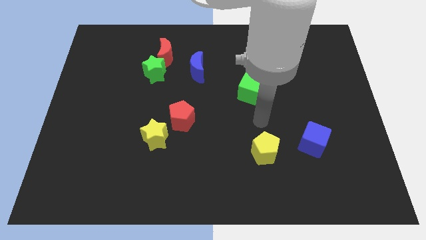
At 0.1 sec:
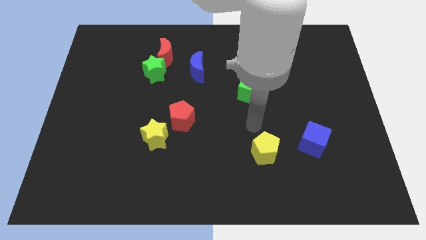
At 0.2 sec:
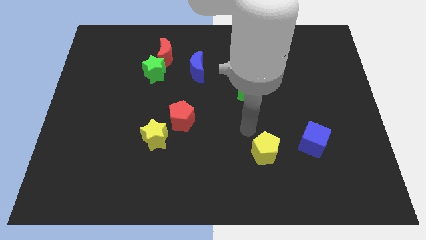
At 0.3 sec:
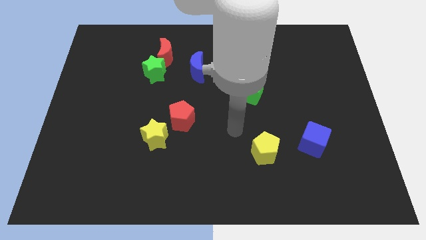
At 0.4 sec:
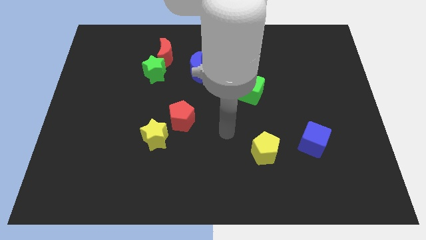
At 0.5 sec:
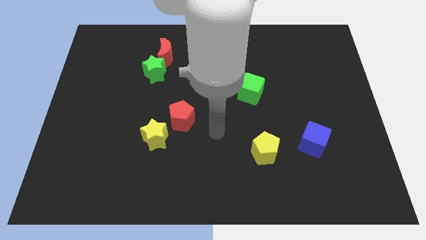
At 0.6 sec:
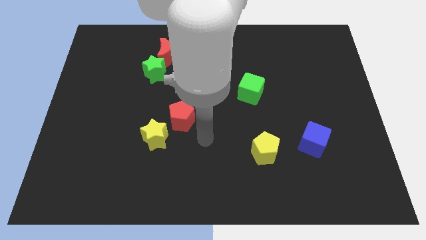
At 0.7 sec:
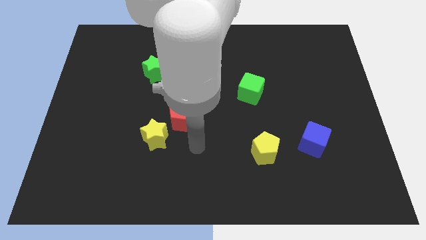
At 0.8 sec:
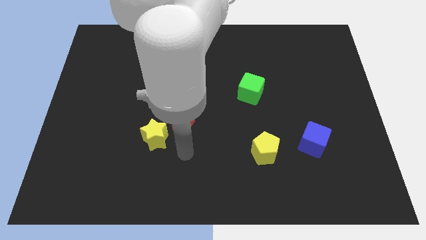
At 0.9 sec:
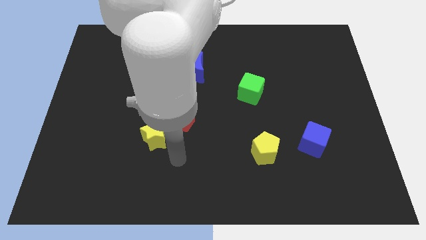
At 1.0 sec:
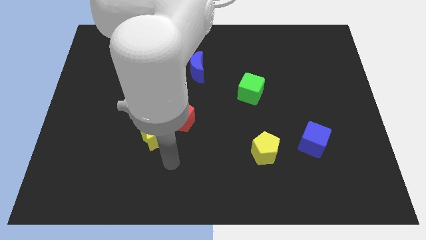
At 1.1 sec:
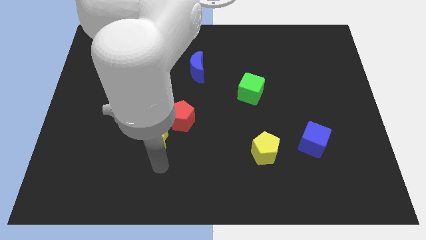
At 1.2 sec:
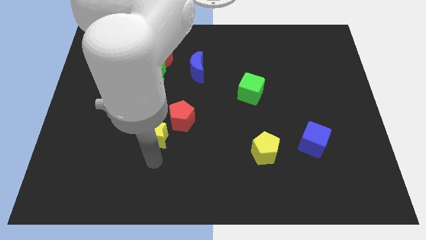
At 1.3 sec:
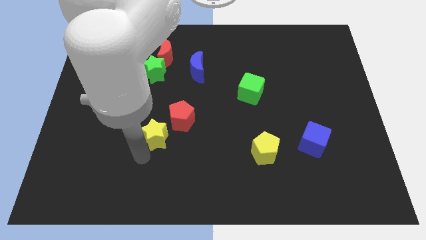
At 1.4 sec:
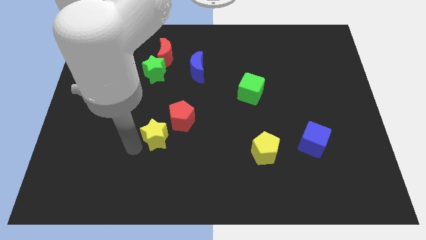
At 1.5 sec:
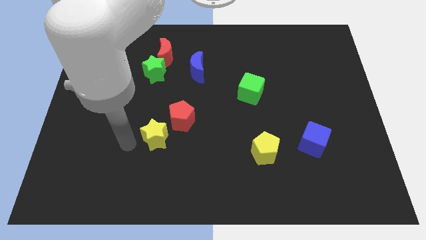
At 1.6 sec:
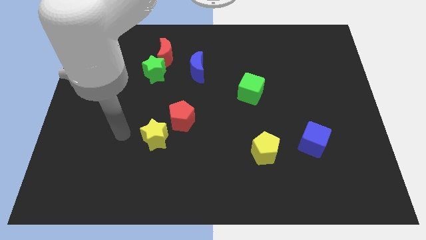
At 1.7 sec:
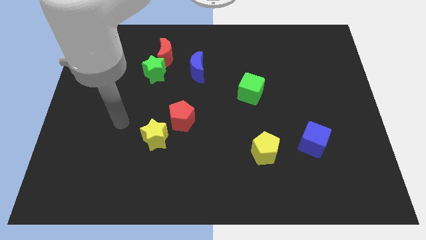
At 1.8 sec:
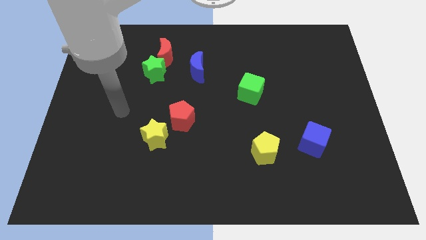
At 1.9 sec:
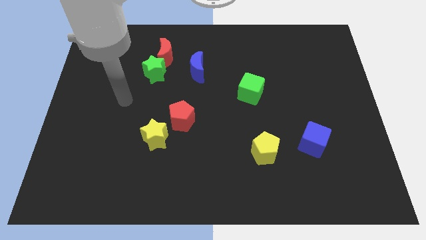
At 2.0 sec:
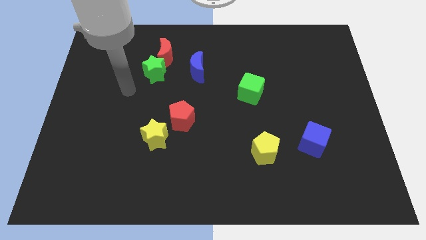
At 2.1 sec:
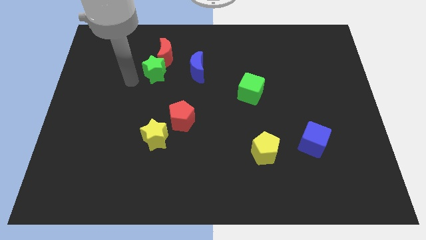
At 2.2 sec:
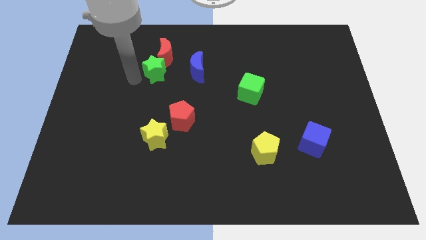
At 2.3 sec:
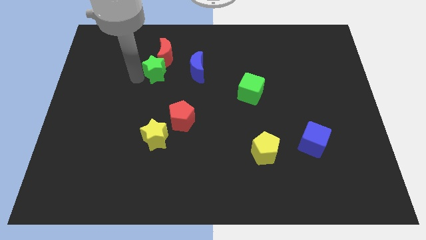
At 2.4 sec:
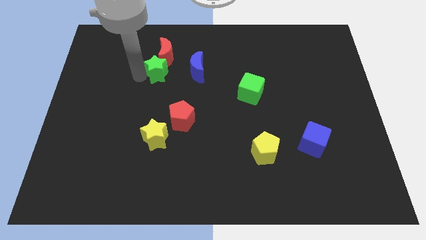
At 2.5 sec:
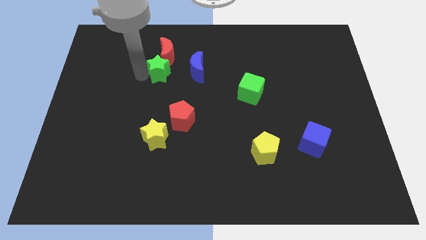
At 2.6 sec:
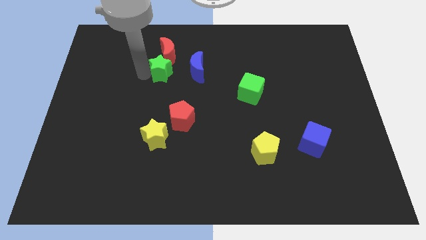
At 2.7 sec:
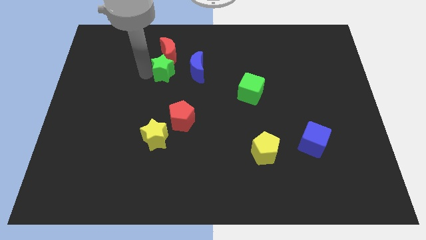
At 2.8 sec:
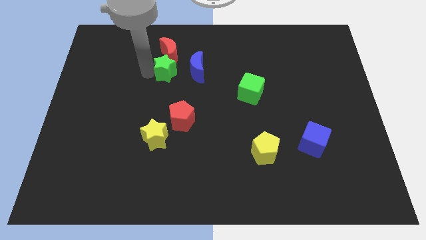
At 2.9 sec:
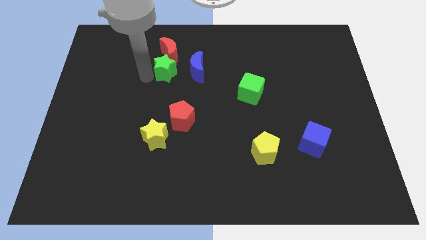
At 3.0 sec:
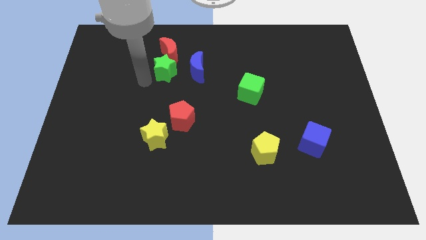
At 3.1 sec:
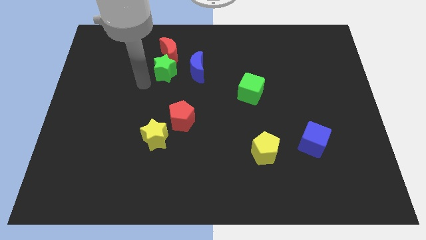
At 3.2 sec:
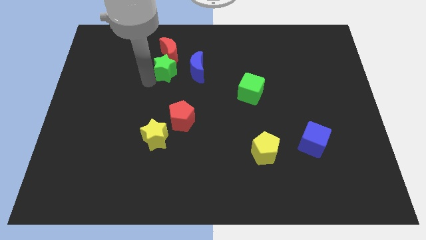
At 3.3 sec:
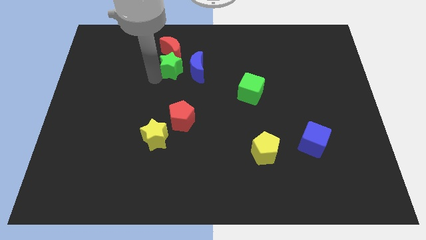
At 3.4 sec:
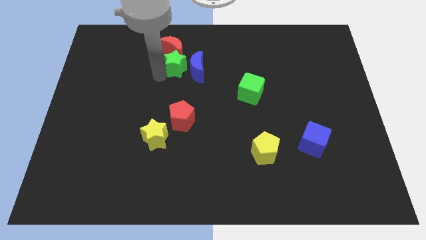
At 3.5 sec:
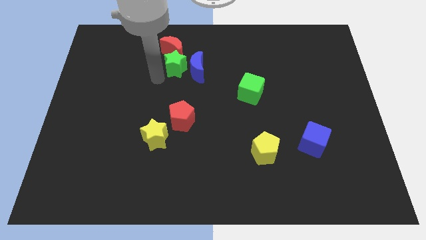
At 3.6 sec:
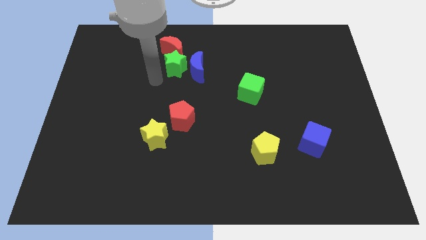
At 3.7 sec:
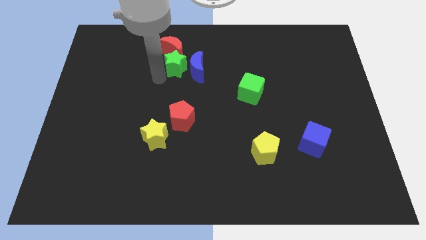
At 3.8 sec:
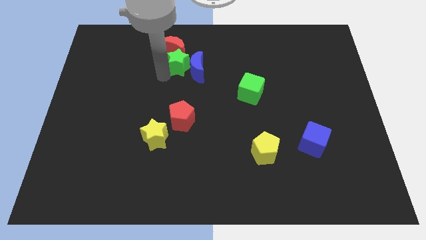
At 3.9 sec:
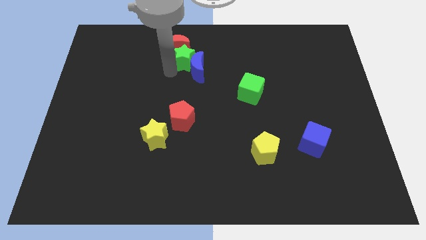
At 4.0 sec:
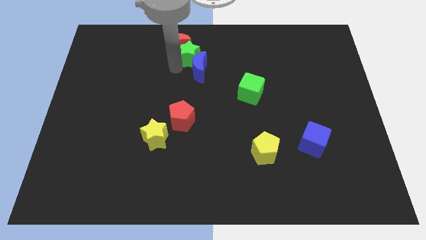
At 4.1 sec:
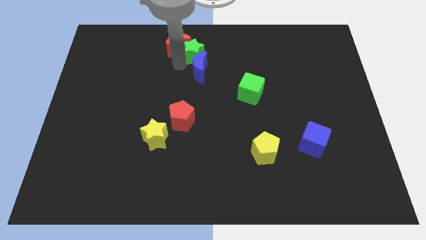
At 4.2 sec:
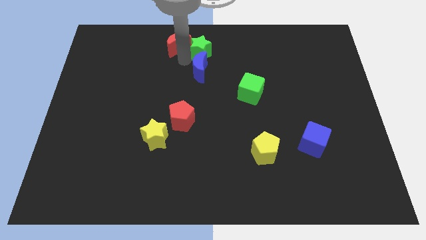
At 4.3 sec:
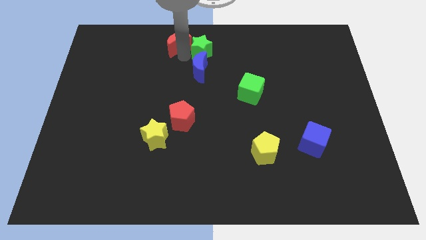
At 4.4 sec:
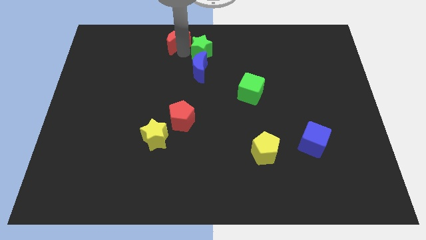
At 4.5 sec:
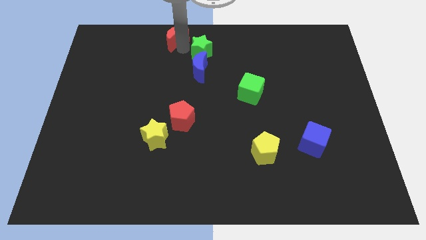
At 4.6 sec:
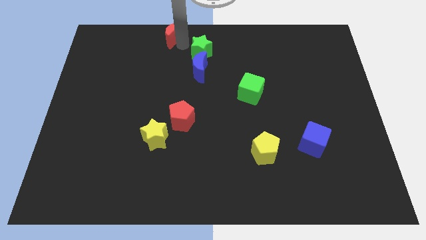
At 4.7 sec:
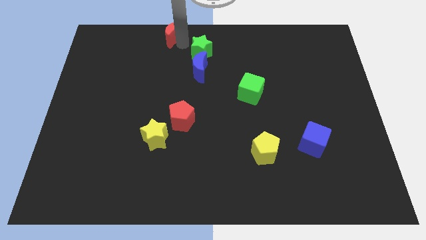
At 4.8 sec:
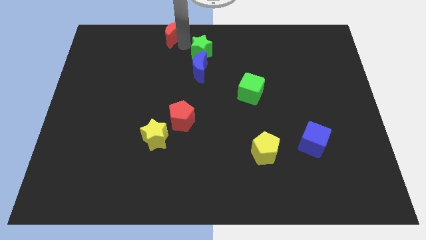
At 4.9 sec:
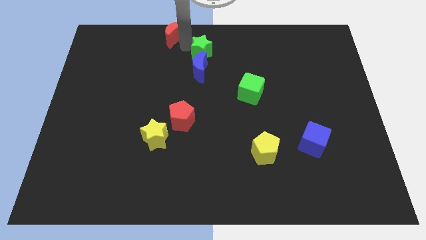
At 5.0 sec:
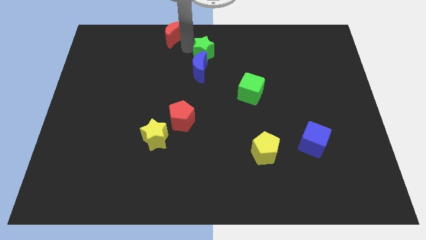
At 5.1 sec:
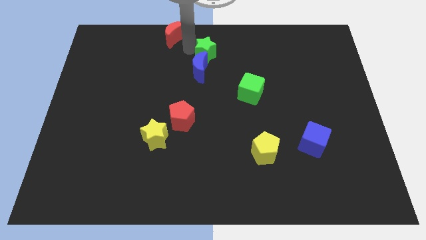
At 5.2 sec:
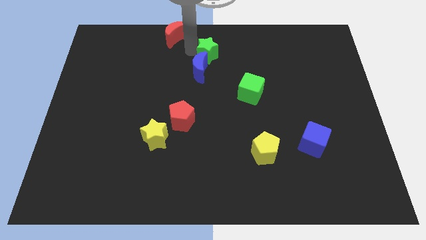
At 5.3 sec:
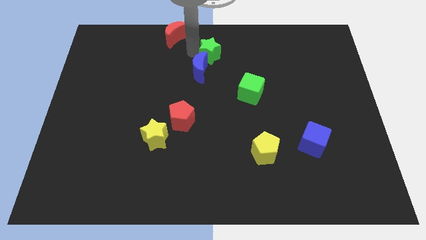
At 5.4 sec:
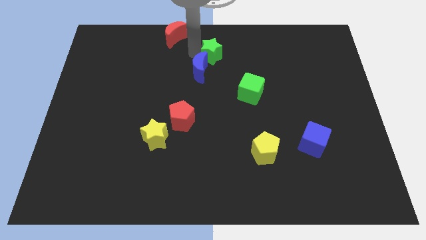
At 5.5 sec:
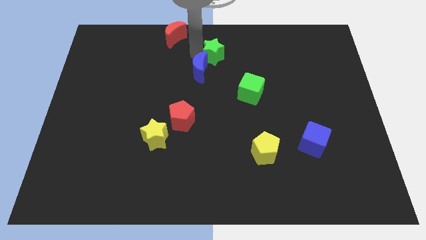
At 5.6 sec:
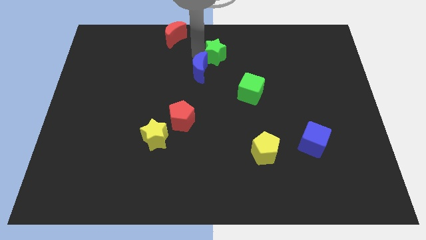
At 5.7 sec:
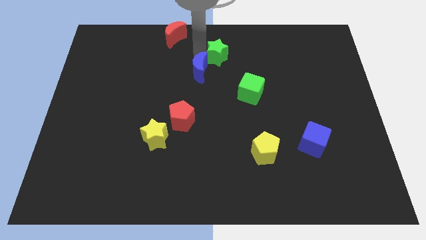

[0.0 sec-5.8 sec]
push the green star to the right of the blue moon

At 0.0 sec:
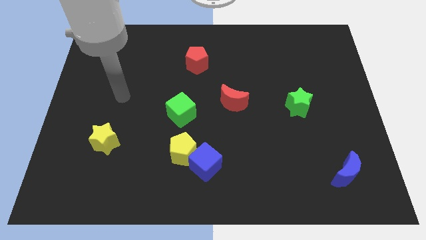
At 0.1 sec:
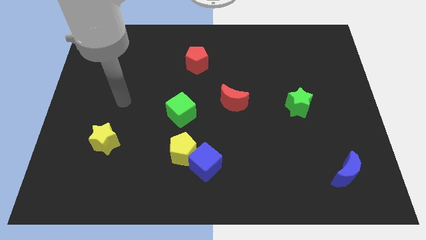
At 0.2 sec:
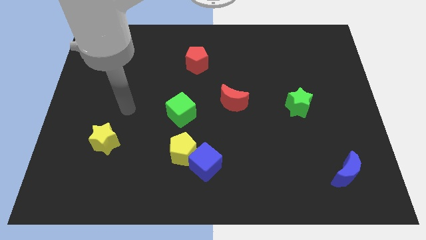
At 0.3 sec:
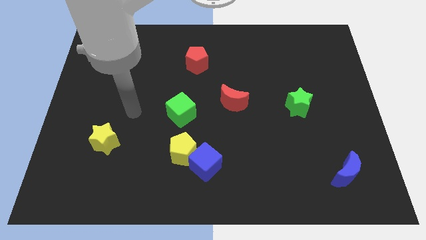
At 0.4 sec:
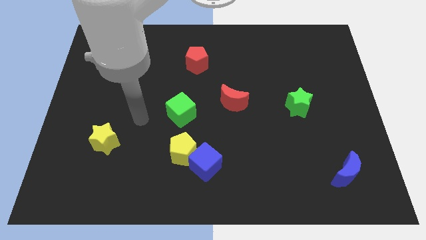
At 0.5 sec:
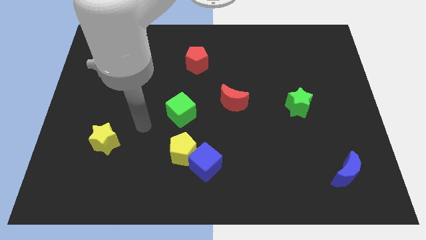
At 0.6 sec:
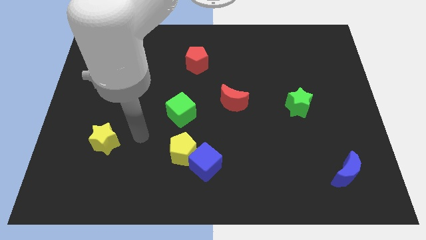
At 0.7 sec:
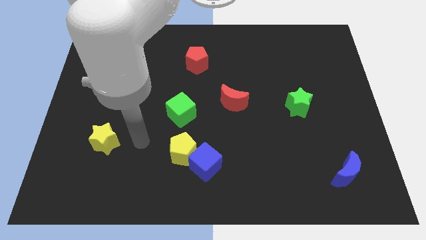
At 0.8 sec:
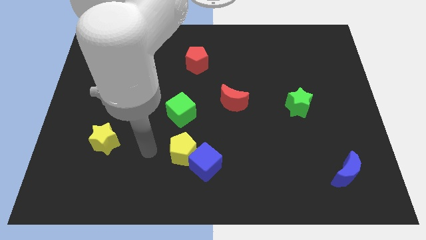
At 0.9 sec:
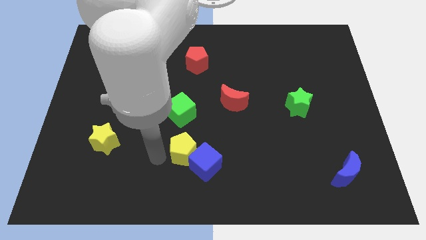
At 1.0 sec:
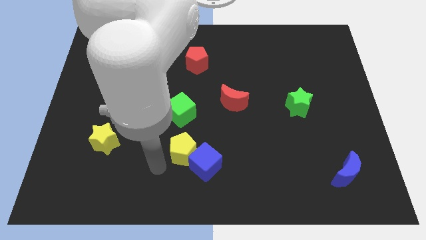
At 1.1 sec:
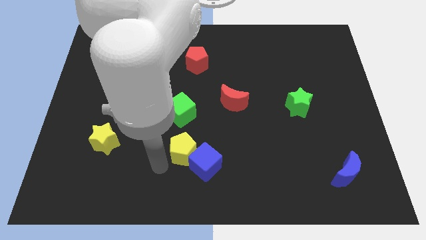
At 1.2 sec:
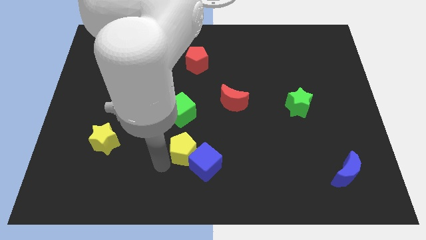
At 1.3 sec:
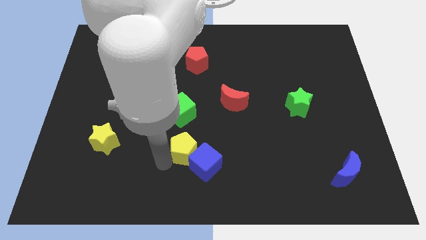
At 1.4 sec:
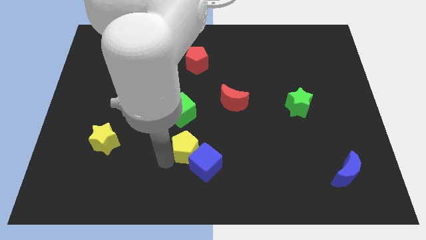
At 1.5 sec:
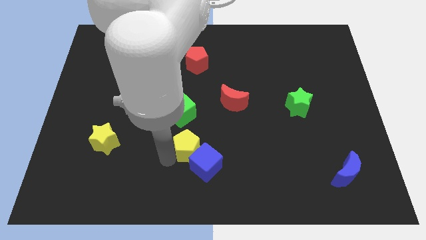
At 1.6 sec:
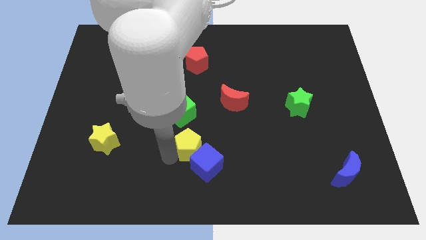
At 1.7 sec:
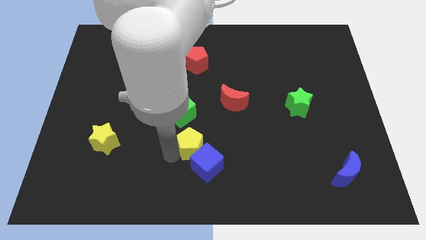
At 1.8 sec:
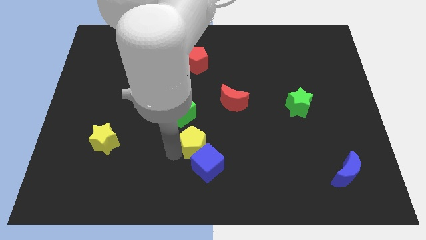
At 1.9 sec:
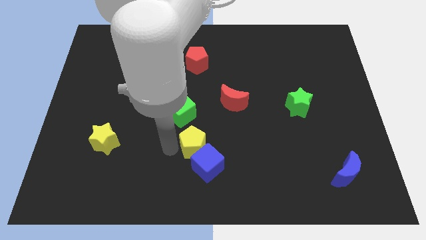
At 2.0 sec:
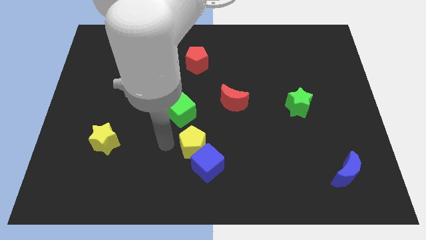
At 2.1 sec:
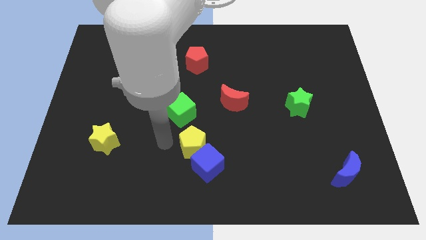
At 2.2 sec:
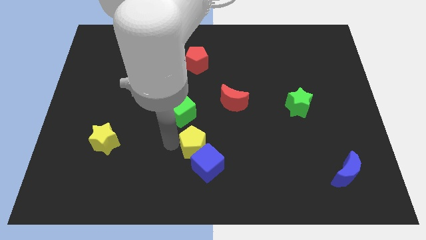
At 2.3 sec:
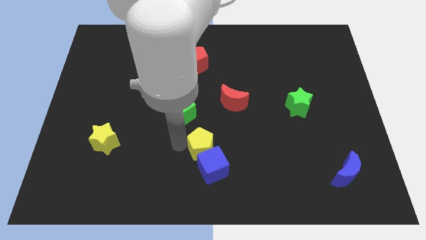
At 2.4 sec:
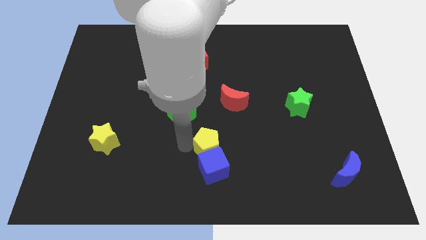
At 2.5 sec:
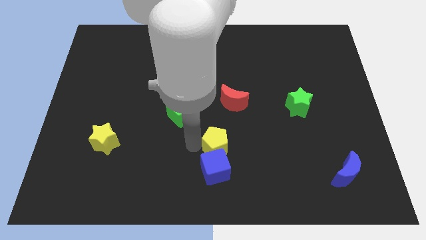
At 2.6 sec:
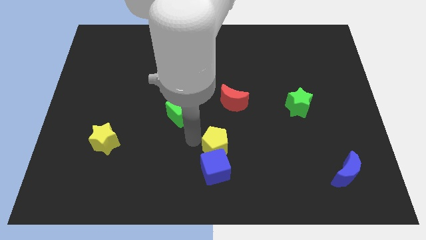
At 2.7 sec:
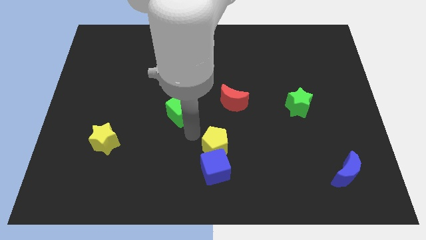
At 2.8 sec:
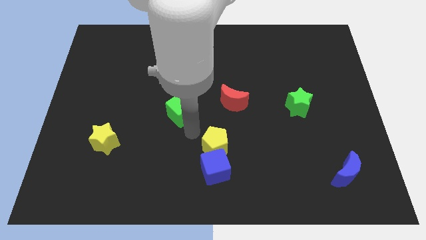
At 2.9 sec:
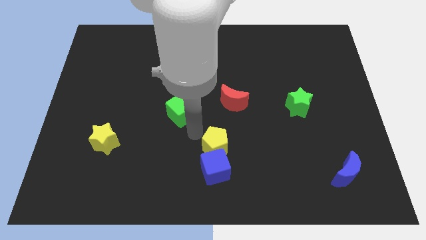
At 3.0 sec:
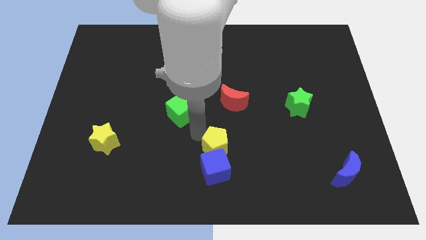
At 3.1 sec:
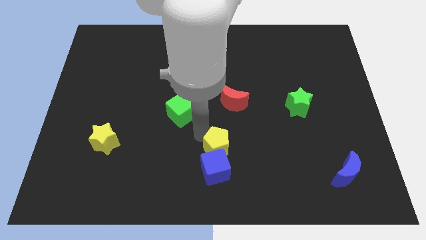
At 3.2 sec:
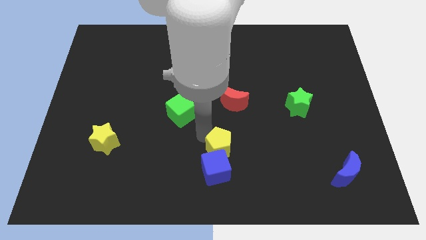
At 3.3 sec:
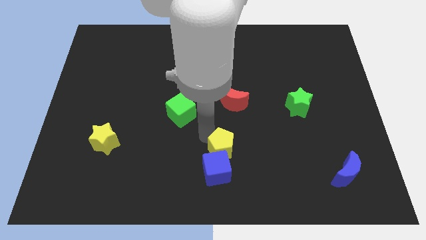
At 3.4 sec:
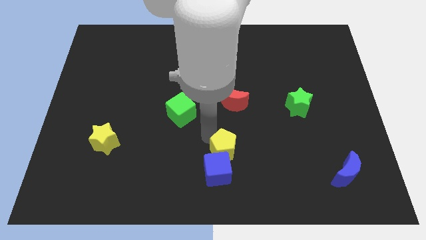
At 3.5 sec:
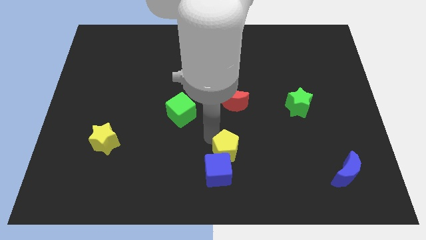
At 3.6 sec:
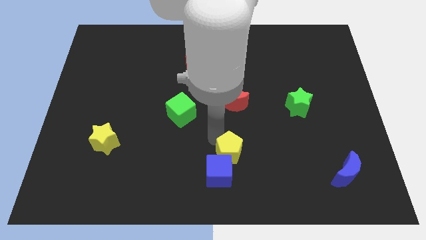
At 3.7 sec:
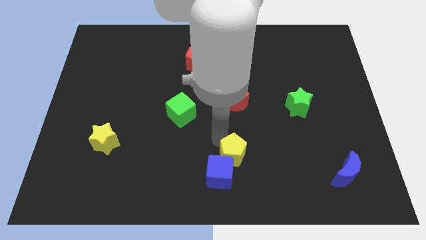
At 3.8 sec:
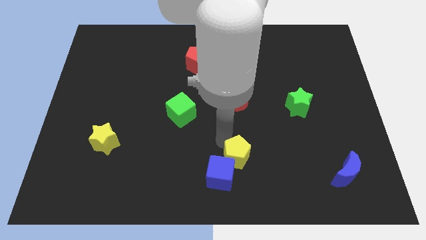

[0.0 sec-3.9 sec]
move the yellow pentagon to the right side of the blue cube
